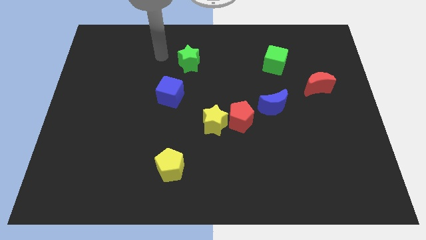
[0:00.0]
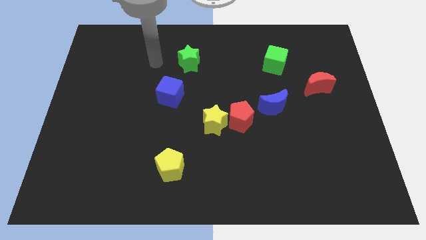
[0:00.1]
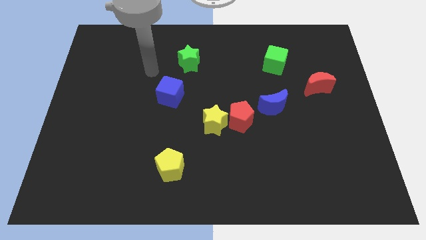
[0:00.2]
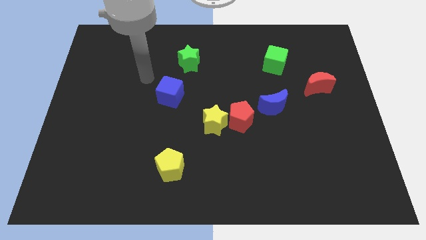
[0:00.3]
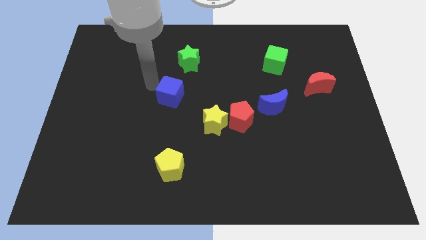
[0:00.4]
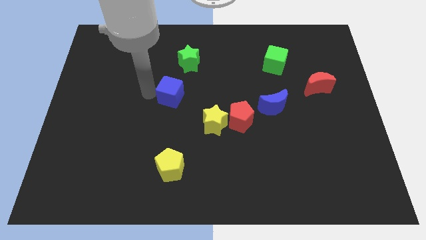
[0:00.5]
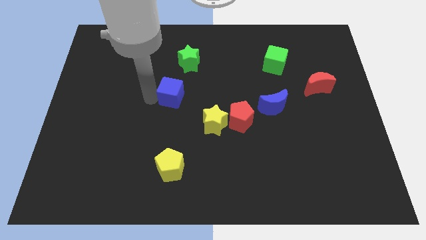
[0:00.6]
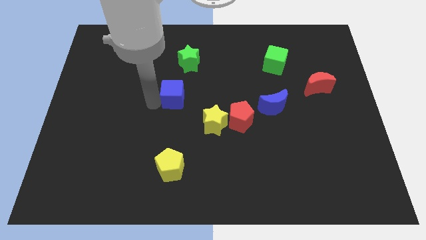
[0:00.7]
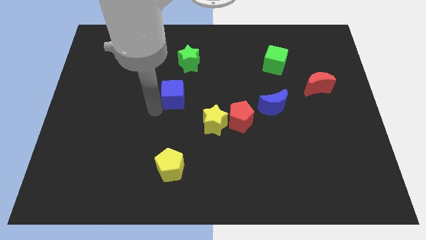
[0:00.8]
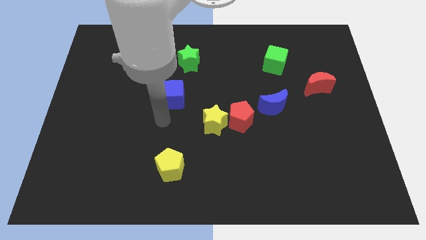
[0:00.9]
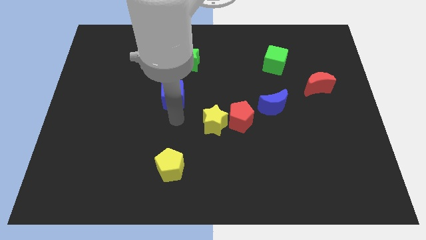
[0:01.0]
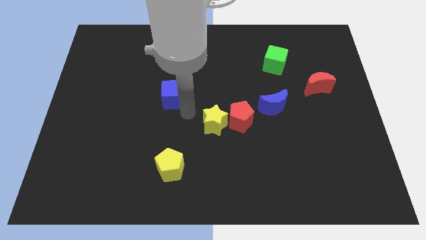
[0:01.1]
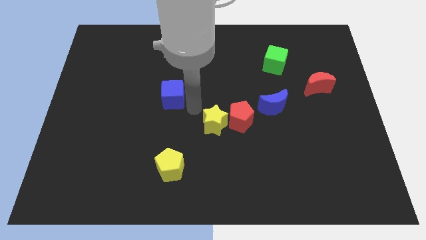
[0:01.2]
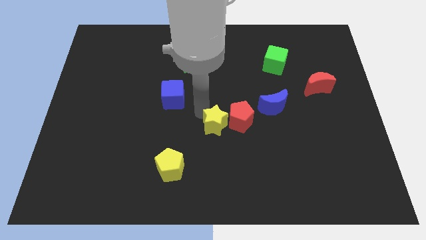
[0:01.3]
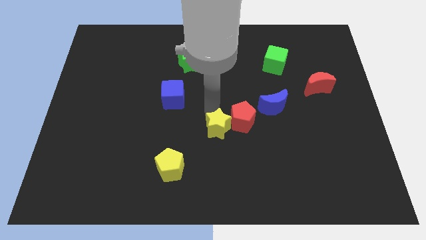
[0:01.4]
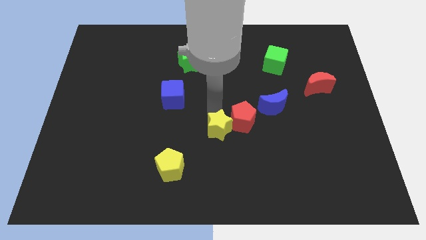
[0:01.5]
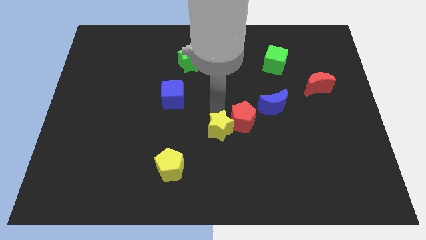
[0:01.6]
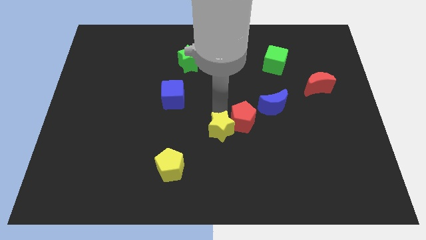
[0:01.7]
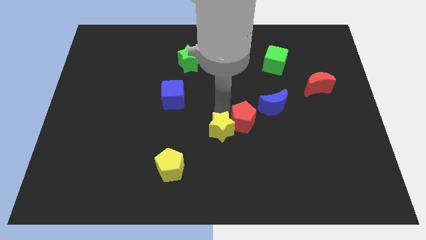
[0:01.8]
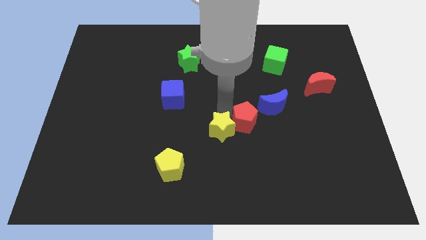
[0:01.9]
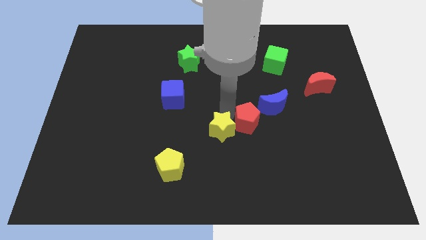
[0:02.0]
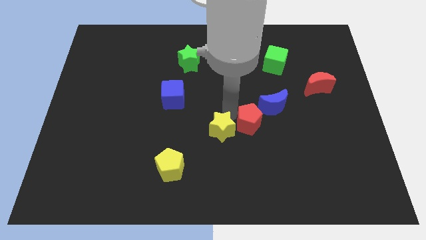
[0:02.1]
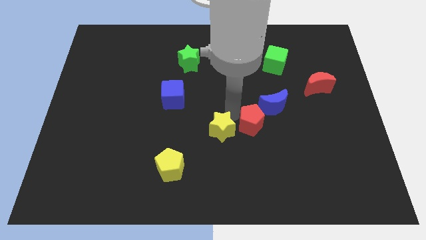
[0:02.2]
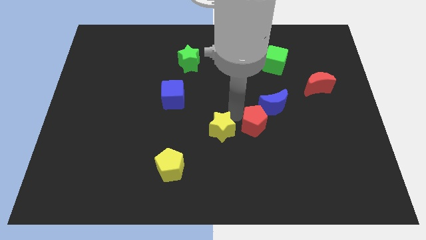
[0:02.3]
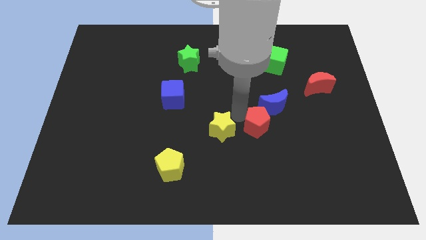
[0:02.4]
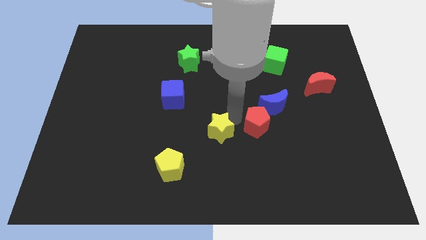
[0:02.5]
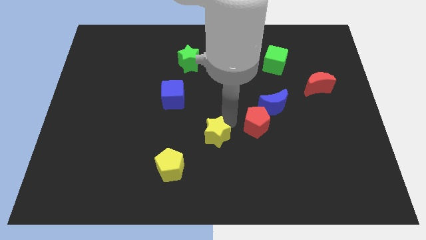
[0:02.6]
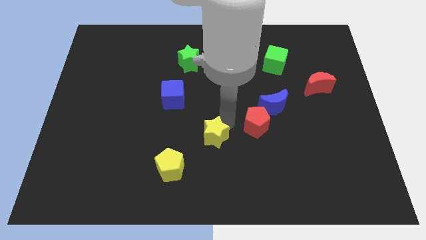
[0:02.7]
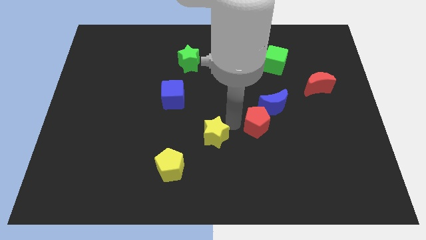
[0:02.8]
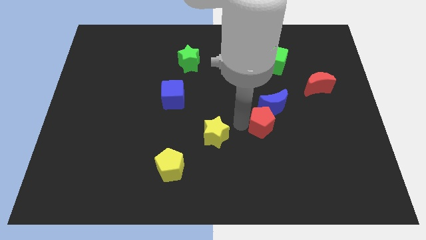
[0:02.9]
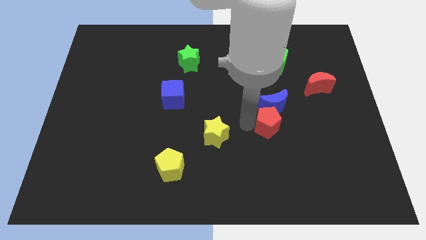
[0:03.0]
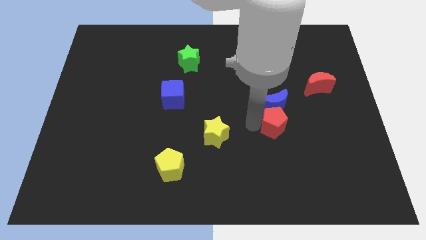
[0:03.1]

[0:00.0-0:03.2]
slide the red pentagon a little to the right

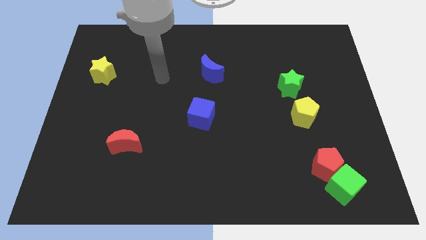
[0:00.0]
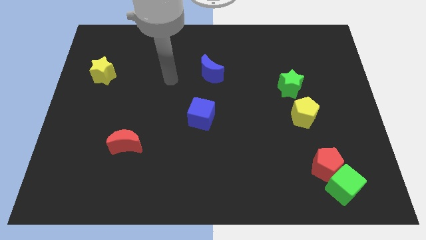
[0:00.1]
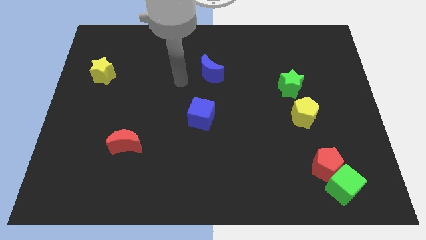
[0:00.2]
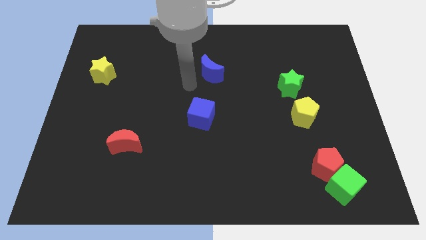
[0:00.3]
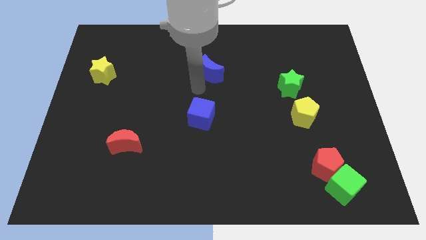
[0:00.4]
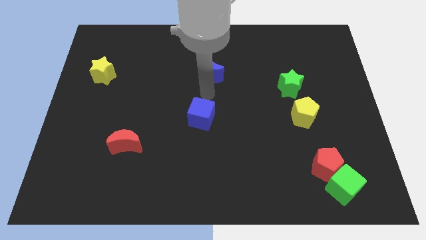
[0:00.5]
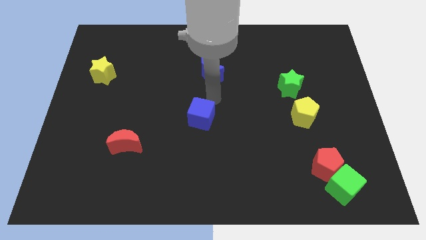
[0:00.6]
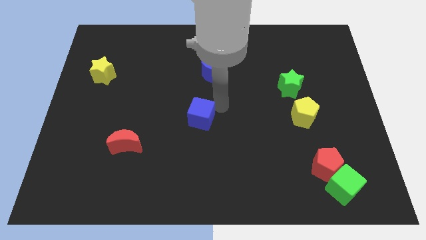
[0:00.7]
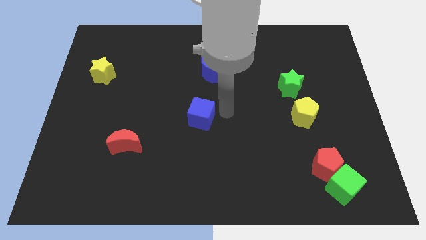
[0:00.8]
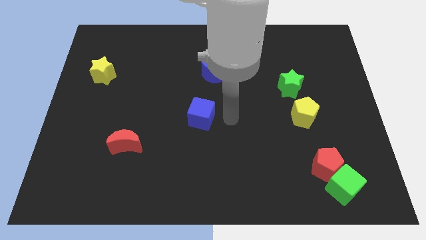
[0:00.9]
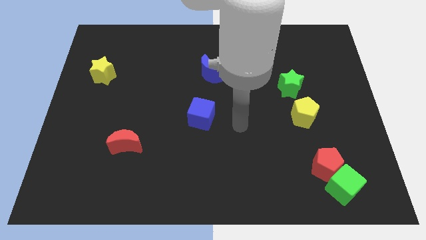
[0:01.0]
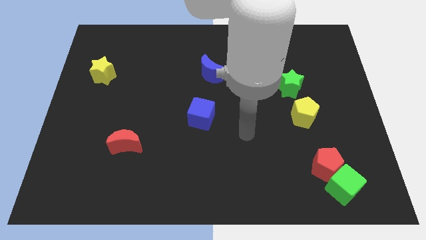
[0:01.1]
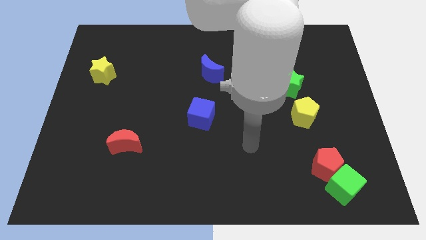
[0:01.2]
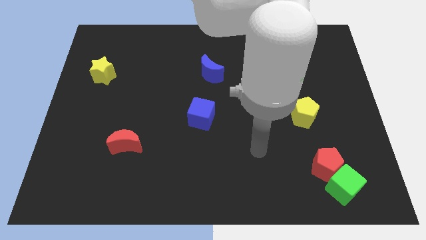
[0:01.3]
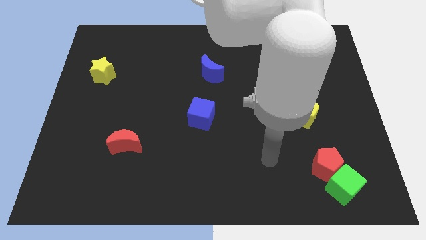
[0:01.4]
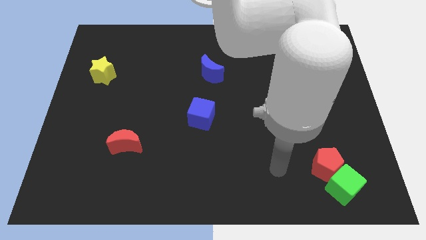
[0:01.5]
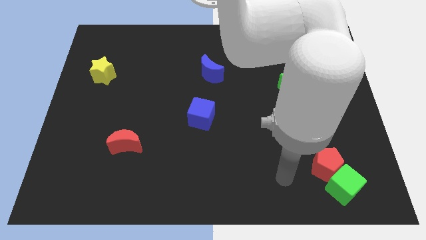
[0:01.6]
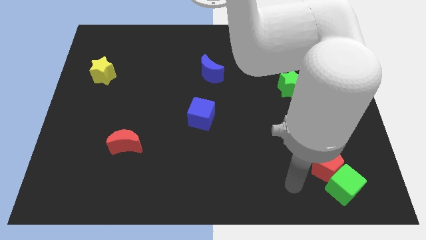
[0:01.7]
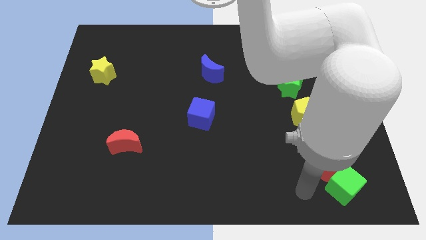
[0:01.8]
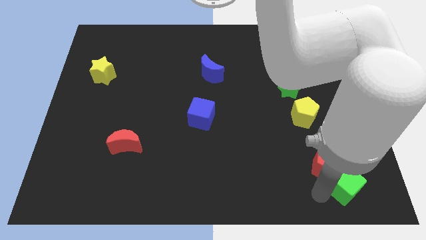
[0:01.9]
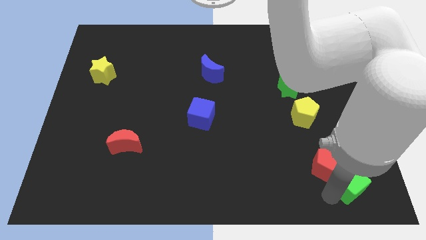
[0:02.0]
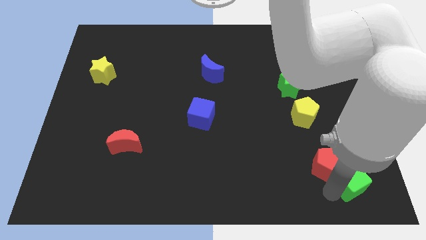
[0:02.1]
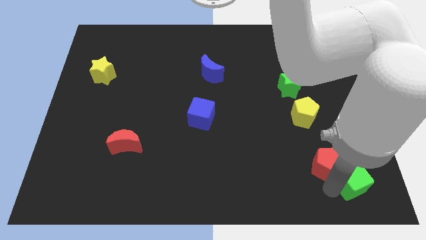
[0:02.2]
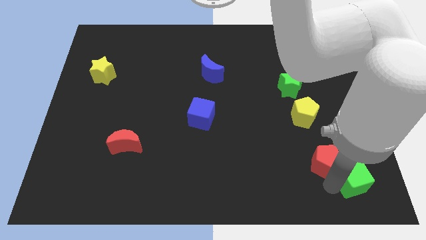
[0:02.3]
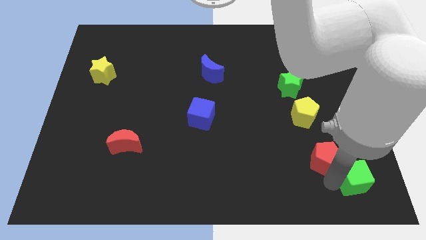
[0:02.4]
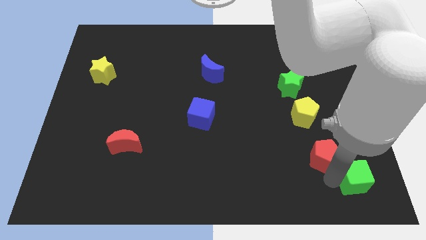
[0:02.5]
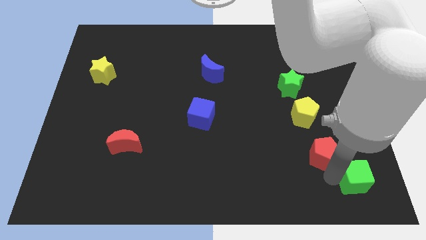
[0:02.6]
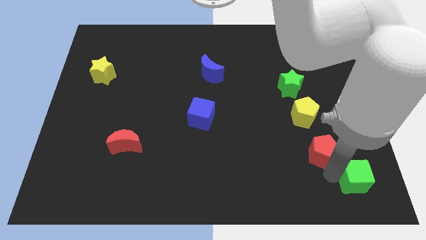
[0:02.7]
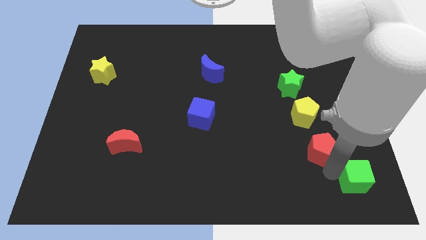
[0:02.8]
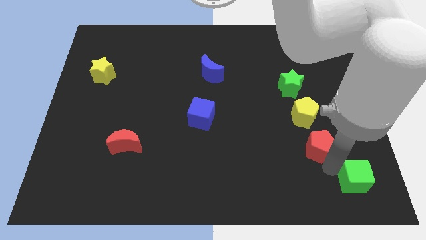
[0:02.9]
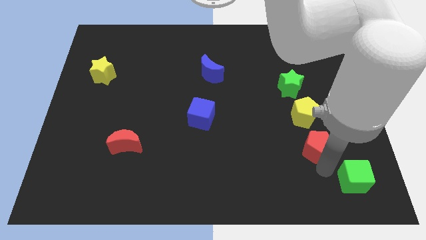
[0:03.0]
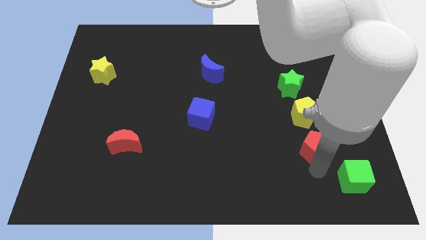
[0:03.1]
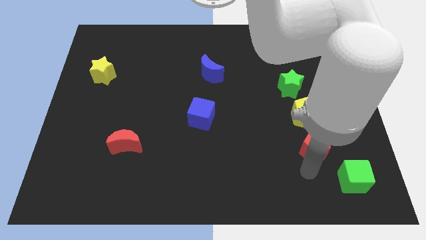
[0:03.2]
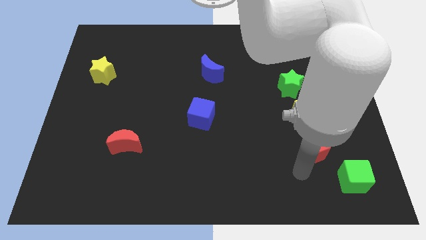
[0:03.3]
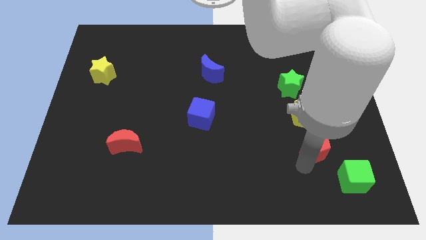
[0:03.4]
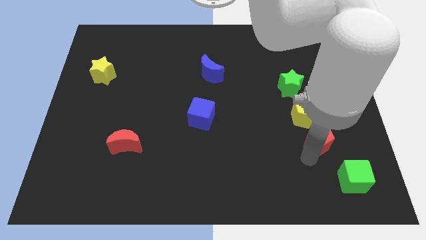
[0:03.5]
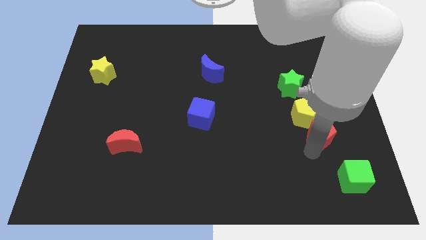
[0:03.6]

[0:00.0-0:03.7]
slide the red pentagon upwards slightly

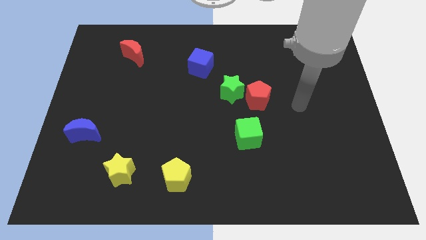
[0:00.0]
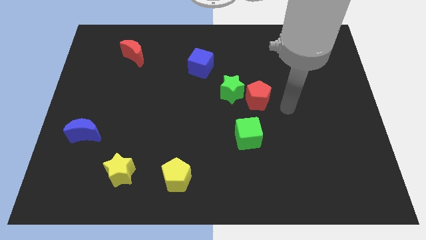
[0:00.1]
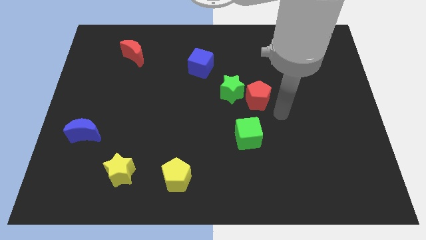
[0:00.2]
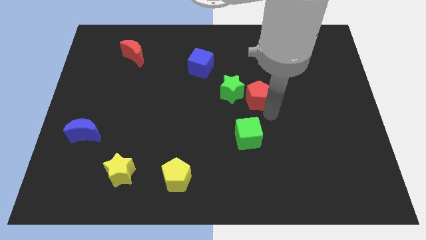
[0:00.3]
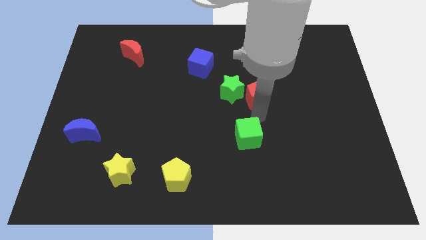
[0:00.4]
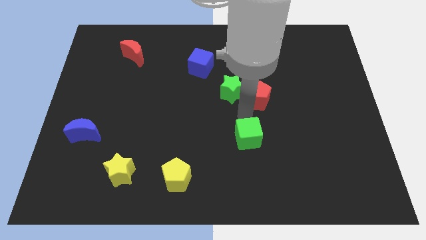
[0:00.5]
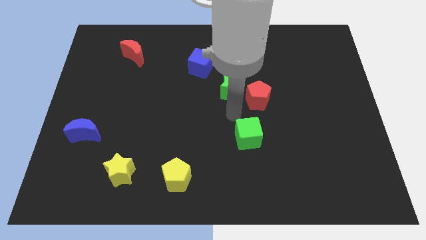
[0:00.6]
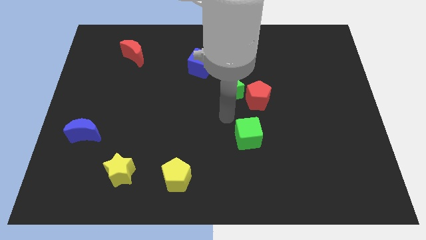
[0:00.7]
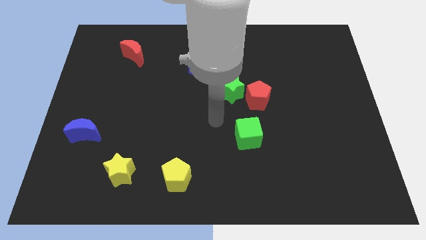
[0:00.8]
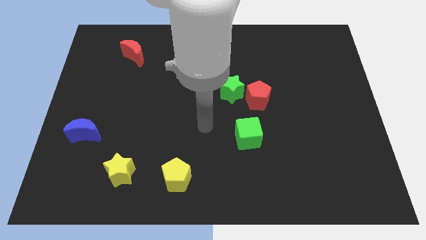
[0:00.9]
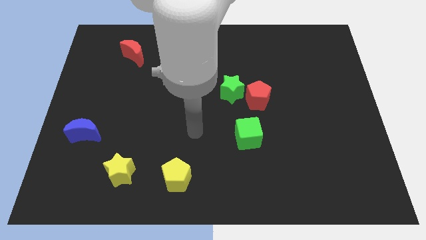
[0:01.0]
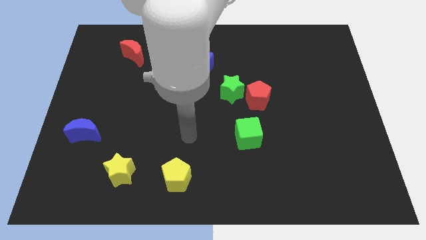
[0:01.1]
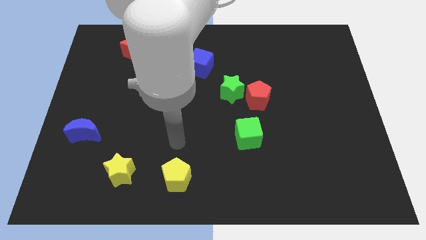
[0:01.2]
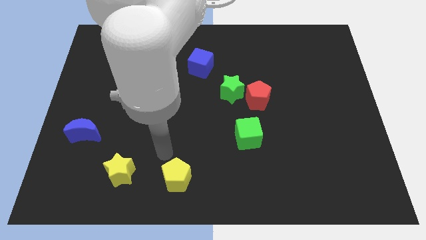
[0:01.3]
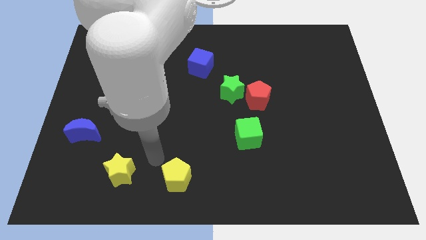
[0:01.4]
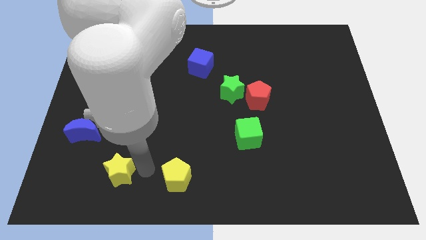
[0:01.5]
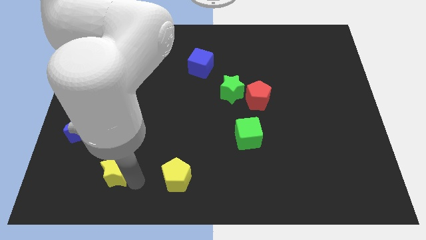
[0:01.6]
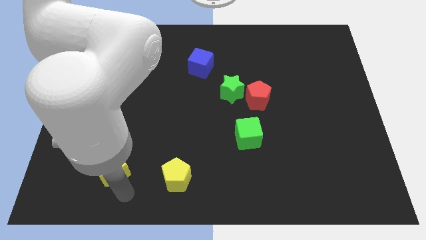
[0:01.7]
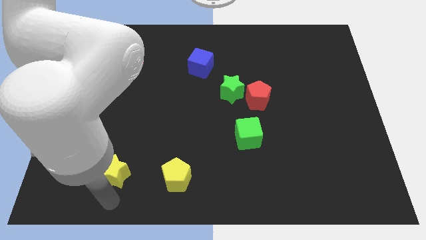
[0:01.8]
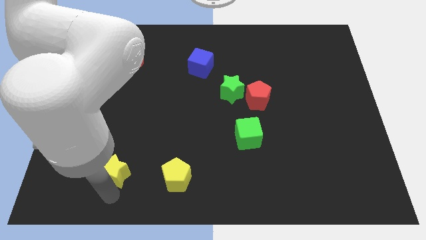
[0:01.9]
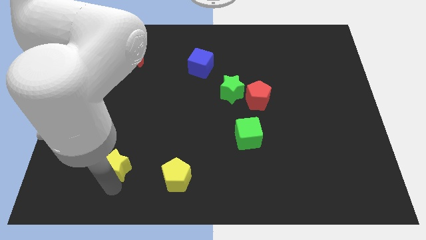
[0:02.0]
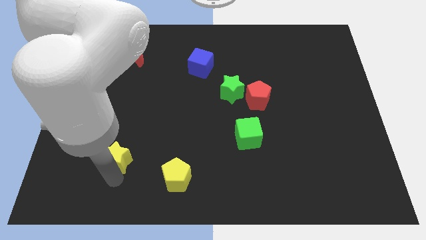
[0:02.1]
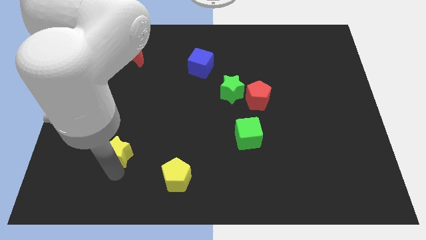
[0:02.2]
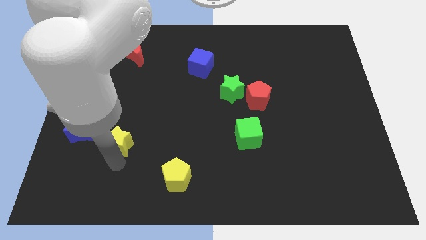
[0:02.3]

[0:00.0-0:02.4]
move the yellow star up slightly
